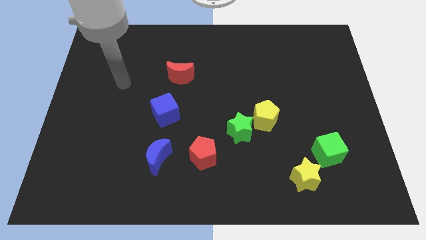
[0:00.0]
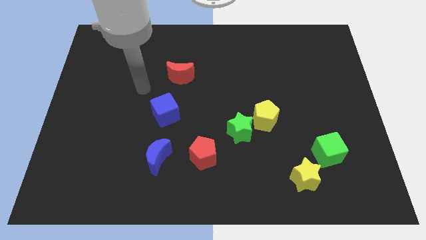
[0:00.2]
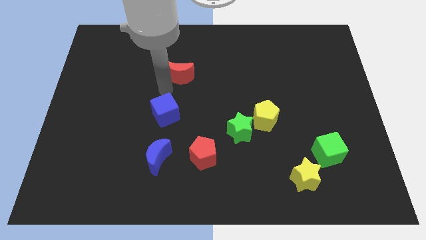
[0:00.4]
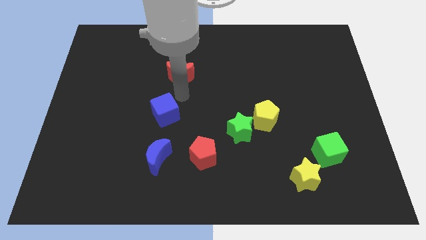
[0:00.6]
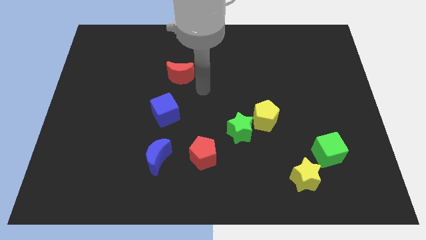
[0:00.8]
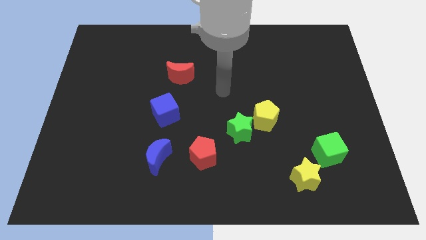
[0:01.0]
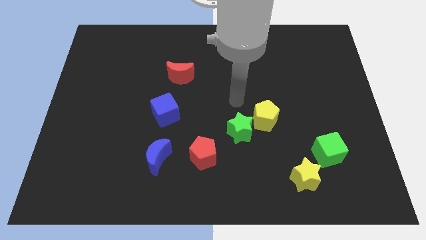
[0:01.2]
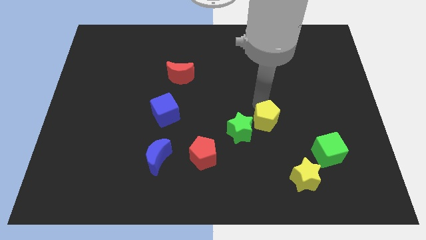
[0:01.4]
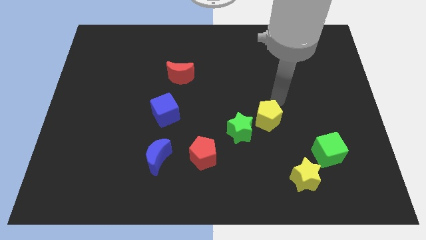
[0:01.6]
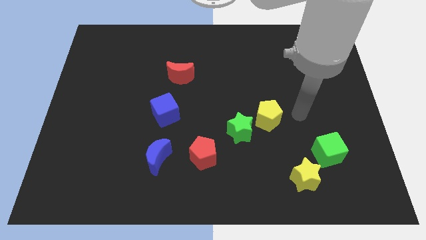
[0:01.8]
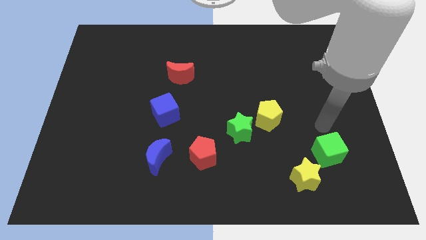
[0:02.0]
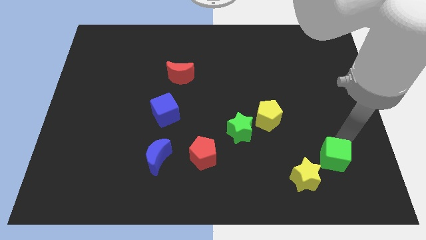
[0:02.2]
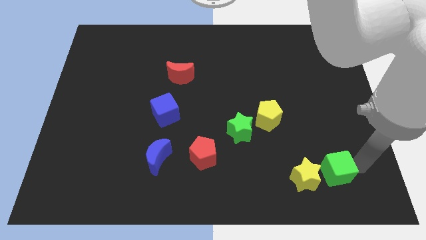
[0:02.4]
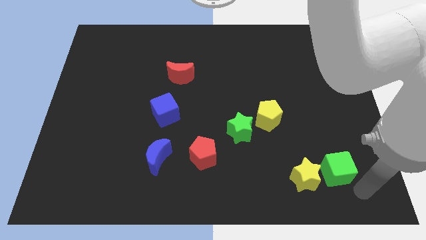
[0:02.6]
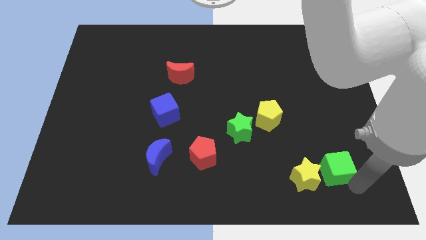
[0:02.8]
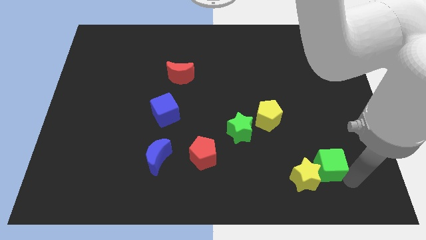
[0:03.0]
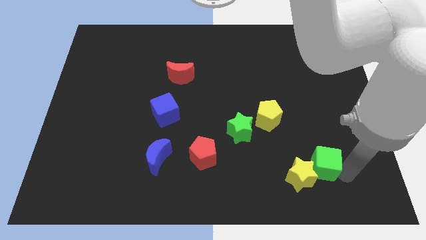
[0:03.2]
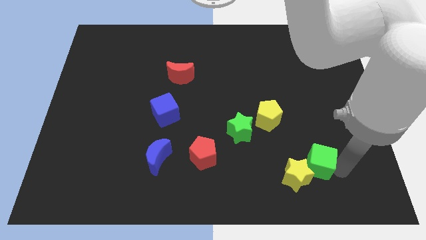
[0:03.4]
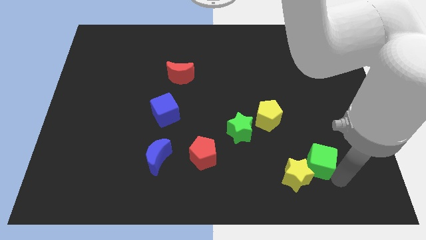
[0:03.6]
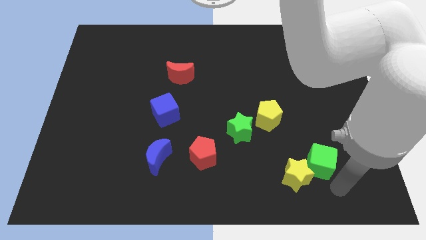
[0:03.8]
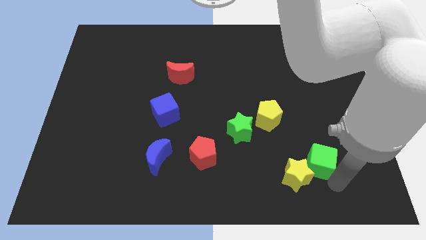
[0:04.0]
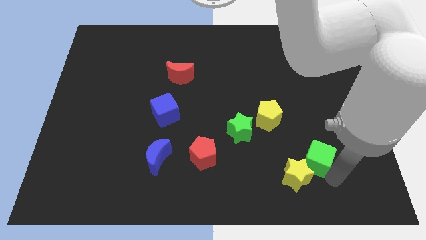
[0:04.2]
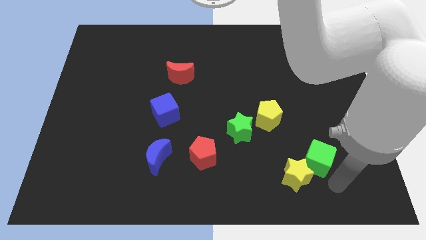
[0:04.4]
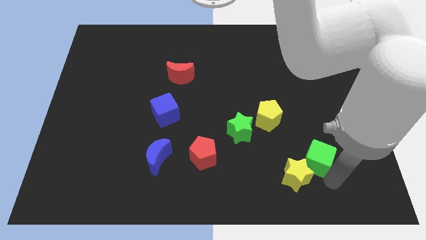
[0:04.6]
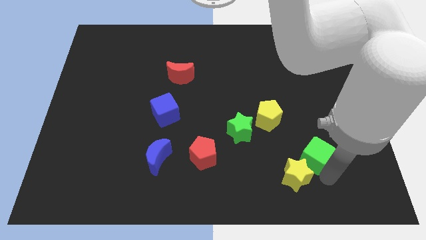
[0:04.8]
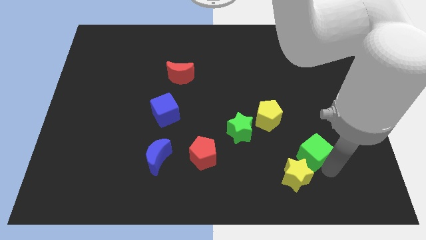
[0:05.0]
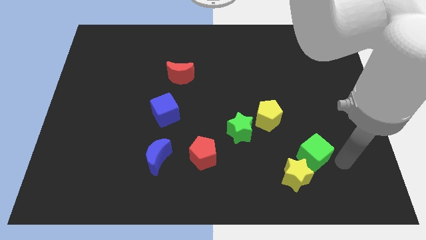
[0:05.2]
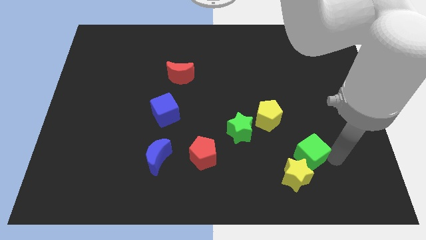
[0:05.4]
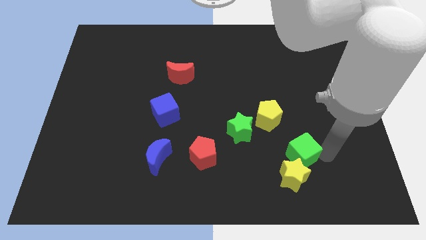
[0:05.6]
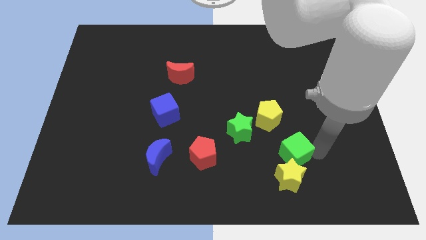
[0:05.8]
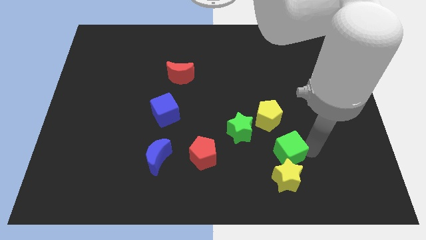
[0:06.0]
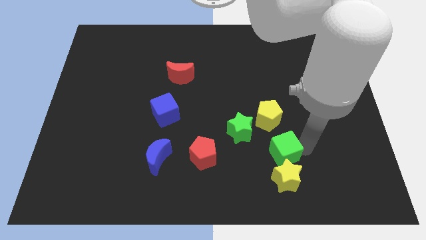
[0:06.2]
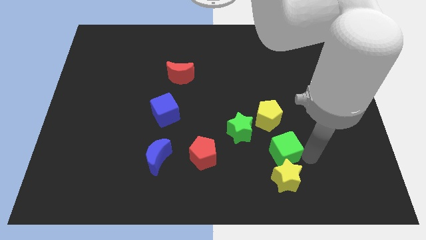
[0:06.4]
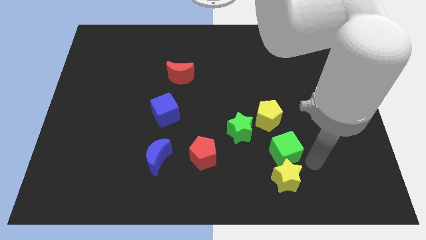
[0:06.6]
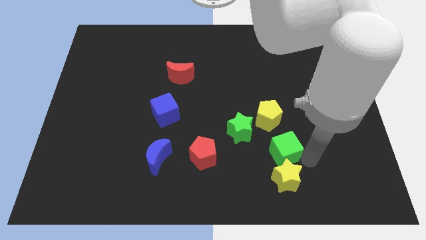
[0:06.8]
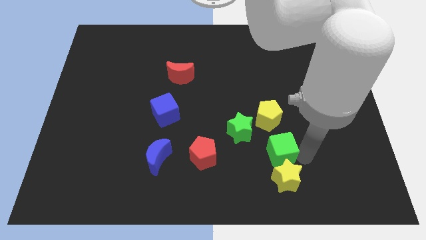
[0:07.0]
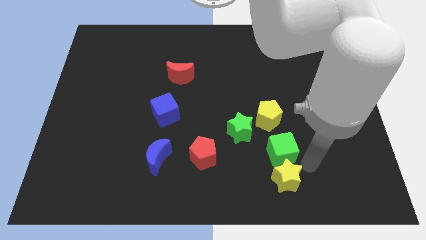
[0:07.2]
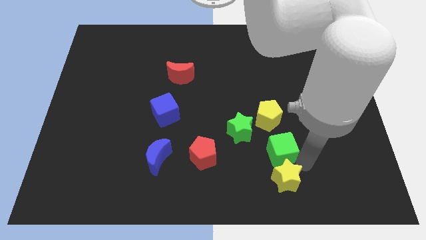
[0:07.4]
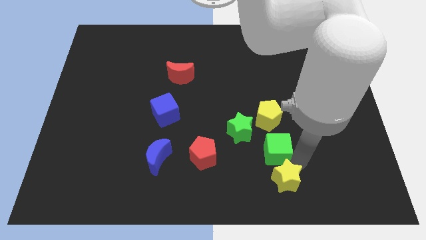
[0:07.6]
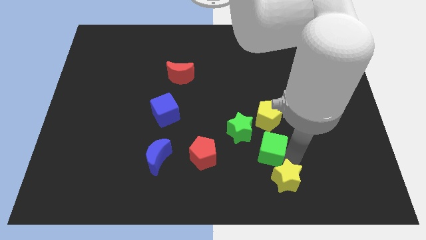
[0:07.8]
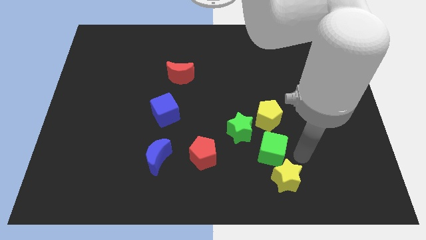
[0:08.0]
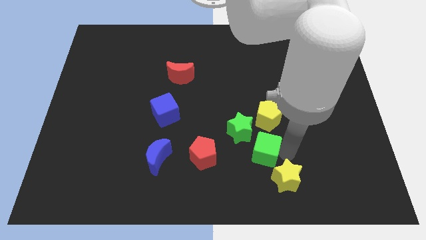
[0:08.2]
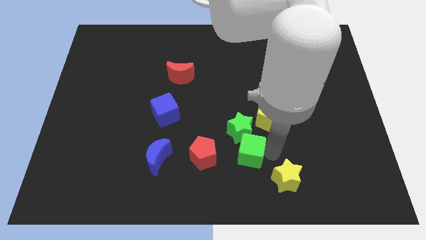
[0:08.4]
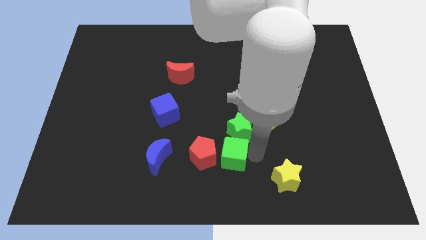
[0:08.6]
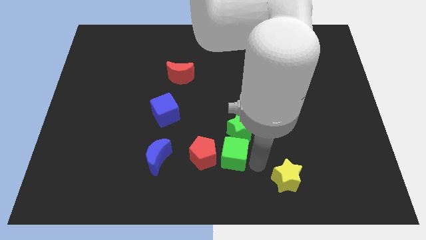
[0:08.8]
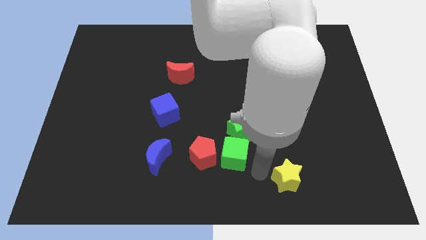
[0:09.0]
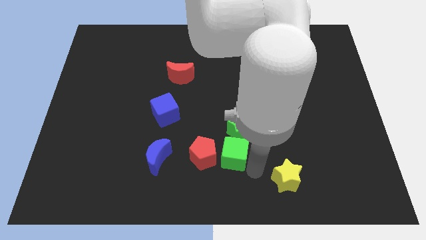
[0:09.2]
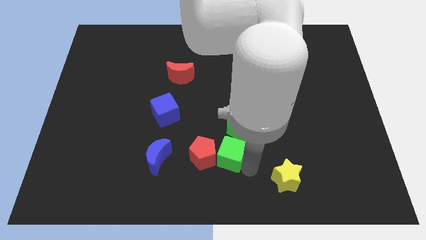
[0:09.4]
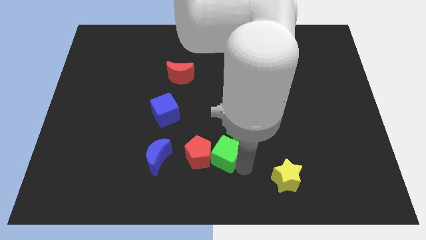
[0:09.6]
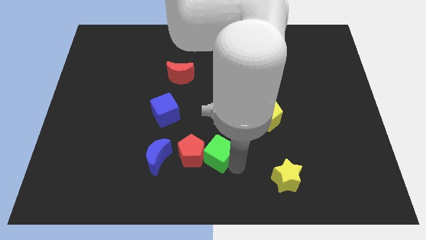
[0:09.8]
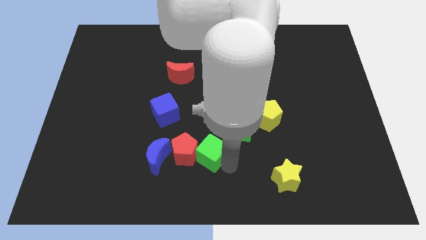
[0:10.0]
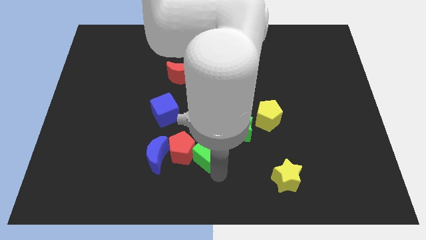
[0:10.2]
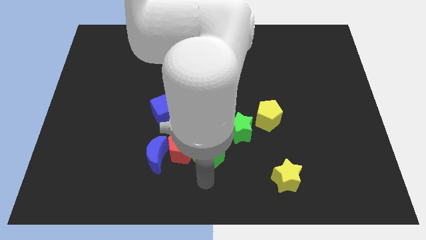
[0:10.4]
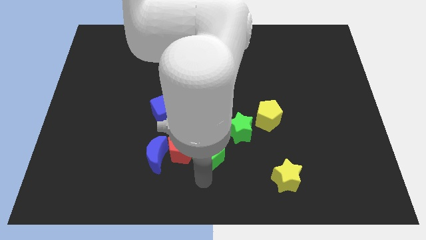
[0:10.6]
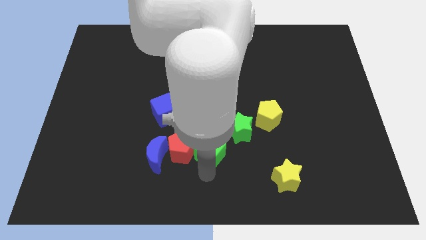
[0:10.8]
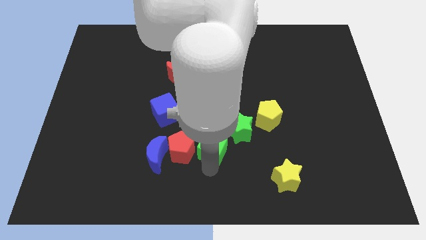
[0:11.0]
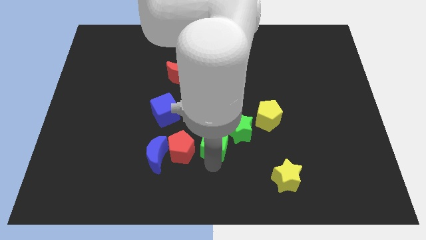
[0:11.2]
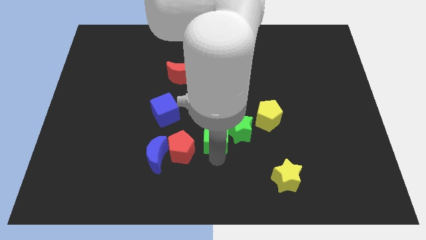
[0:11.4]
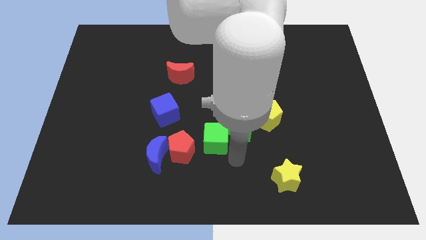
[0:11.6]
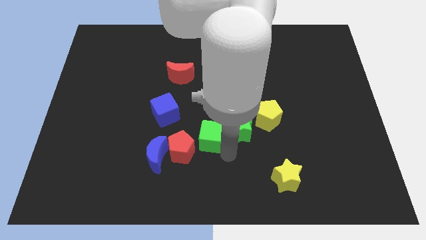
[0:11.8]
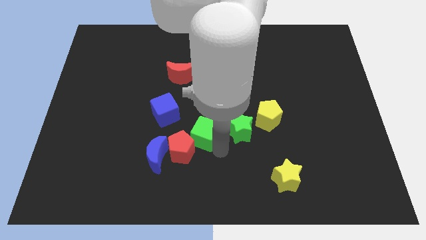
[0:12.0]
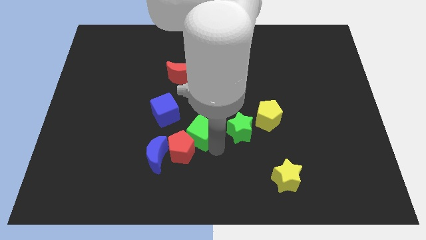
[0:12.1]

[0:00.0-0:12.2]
move the green cube to the top of the red pentagon
